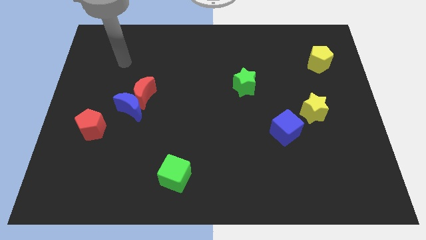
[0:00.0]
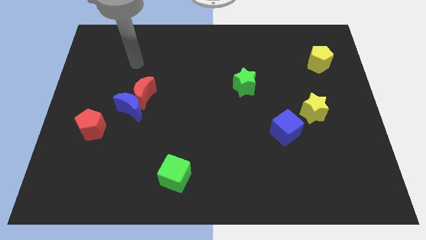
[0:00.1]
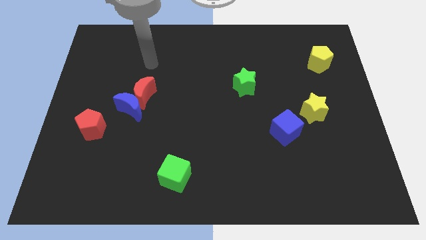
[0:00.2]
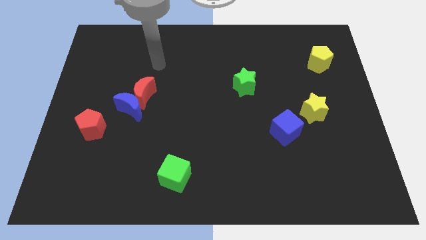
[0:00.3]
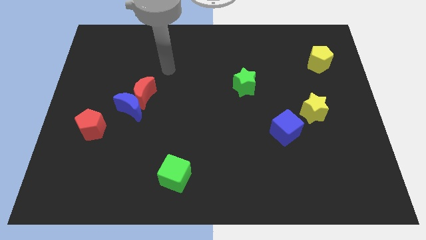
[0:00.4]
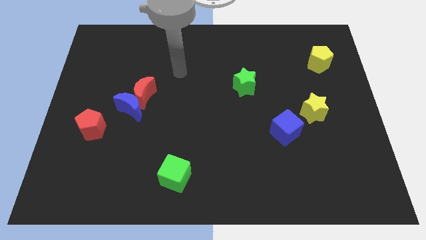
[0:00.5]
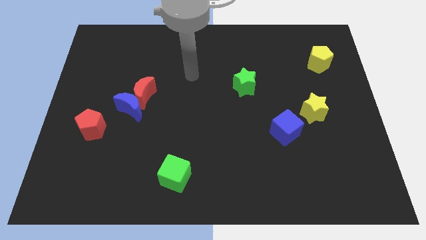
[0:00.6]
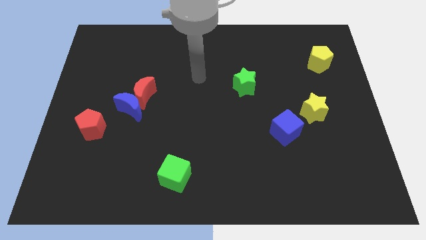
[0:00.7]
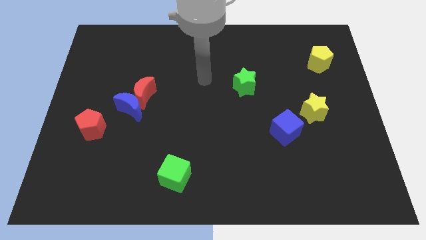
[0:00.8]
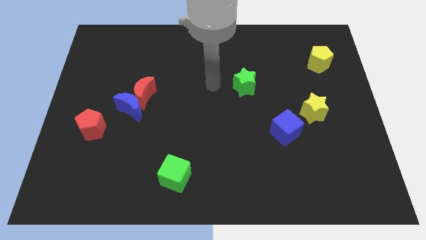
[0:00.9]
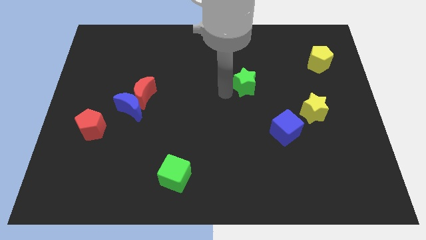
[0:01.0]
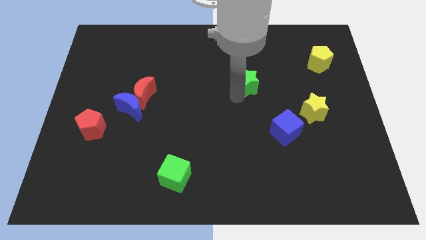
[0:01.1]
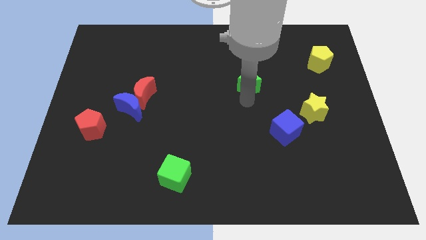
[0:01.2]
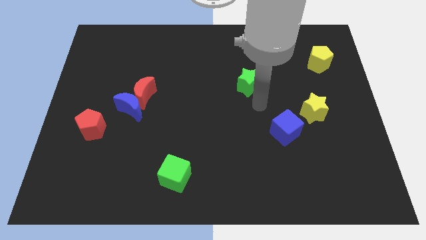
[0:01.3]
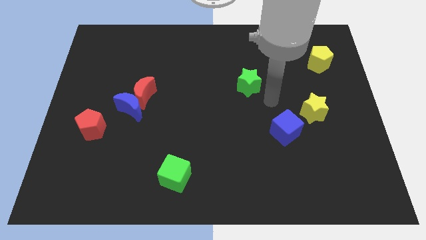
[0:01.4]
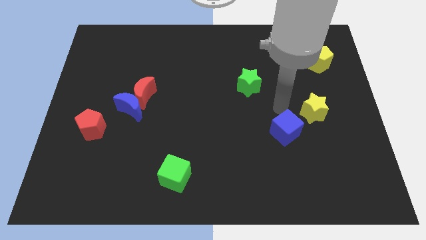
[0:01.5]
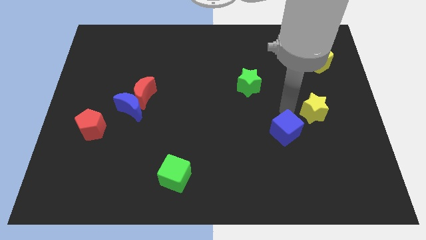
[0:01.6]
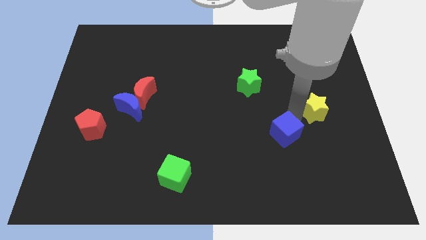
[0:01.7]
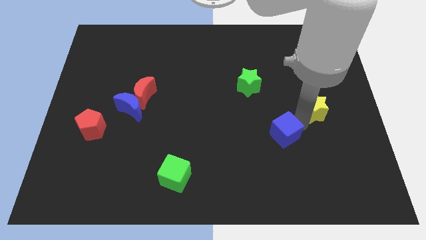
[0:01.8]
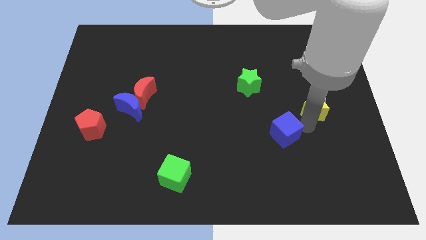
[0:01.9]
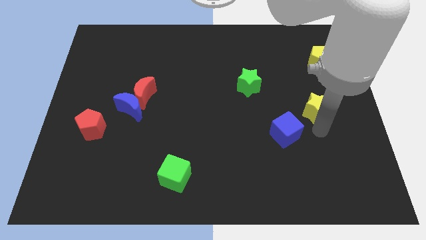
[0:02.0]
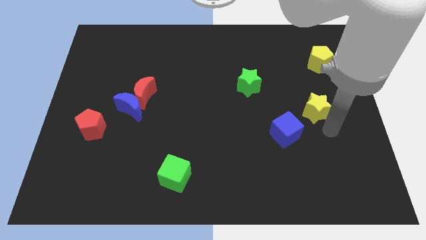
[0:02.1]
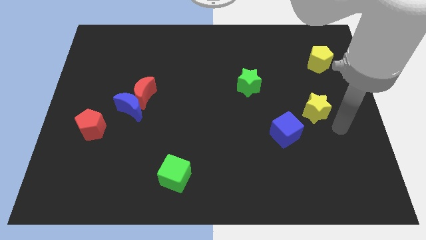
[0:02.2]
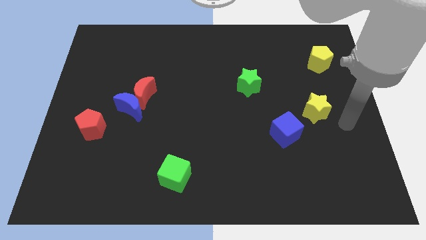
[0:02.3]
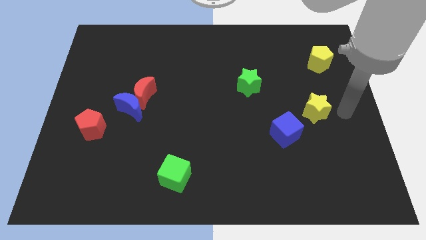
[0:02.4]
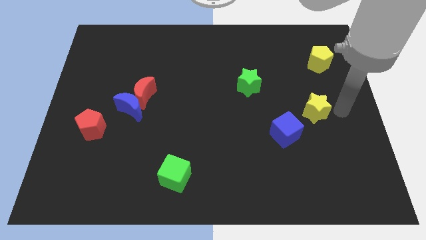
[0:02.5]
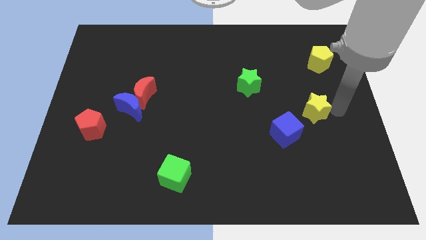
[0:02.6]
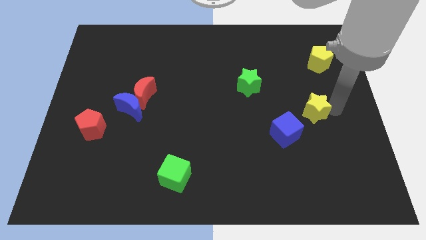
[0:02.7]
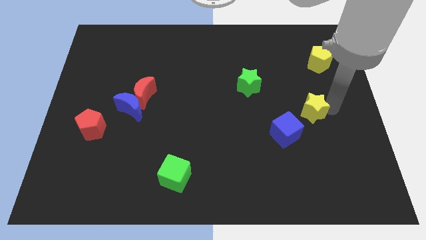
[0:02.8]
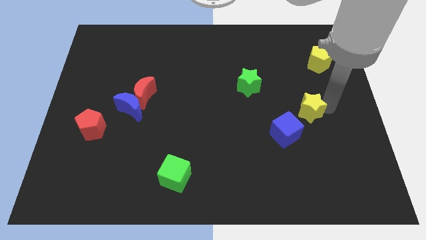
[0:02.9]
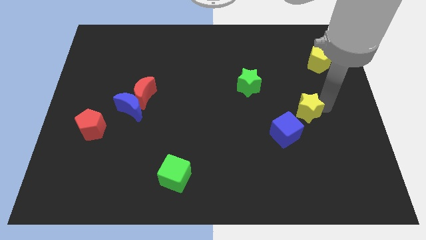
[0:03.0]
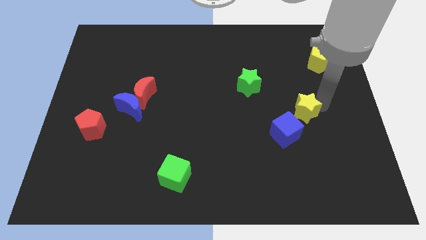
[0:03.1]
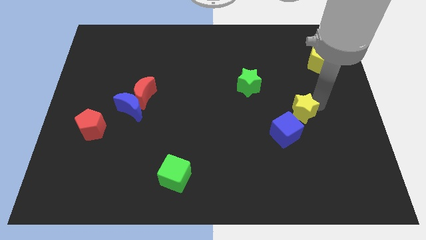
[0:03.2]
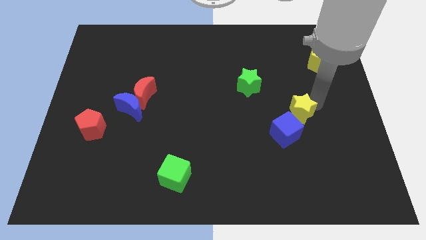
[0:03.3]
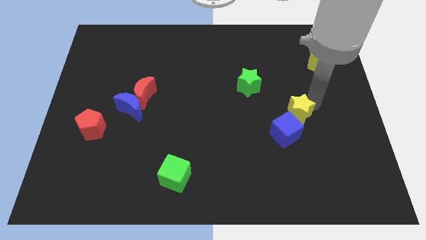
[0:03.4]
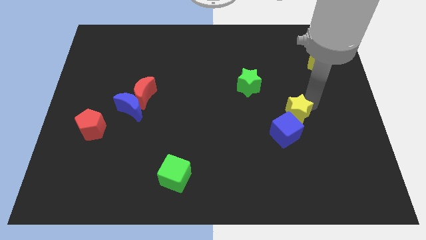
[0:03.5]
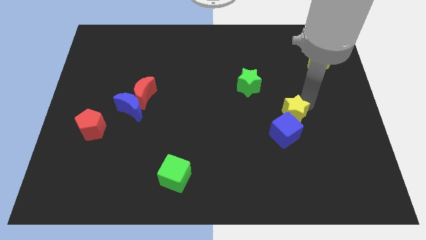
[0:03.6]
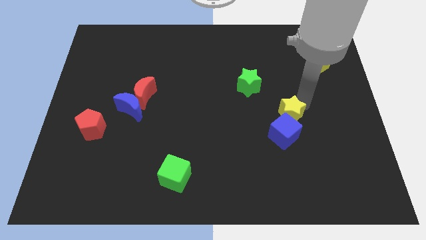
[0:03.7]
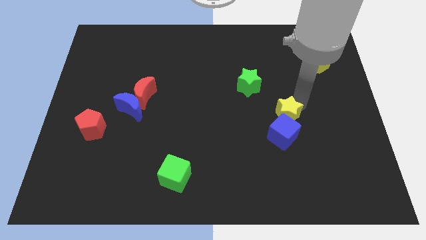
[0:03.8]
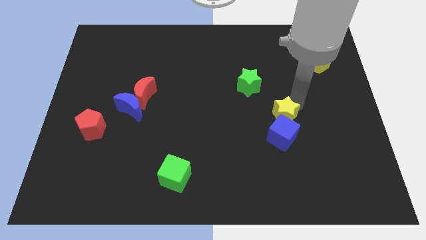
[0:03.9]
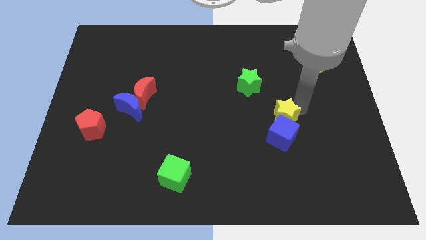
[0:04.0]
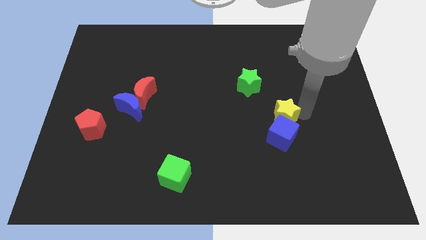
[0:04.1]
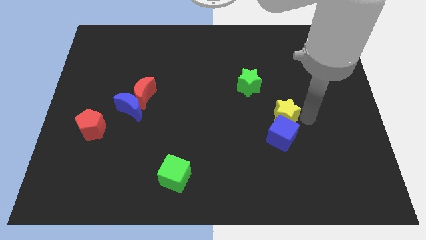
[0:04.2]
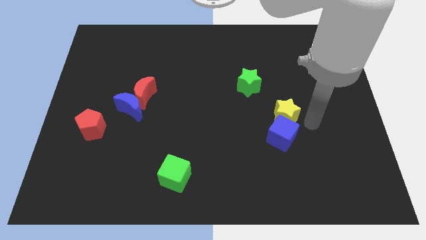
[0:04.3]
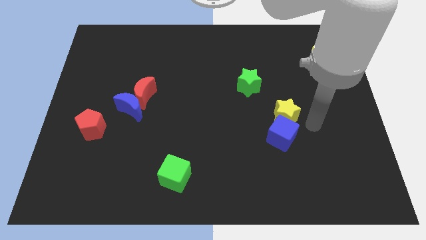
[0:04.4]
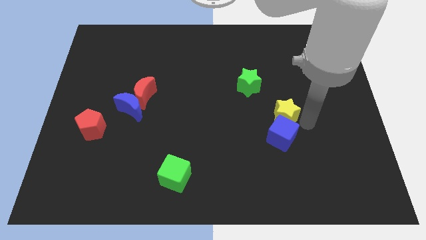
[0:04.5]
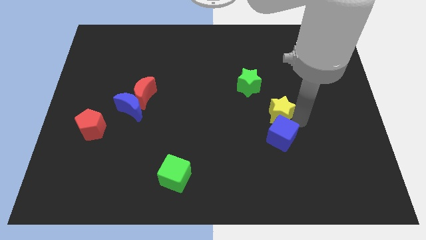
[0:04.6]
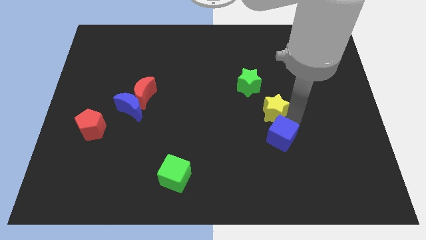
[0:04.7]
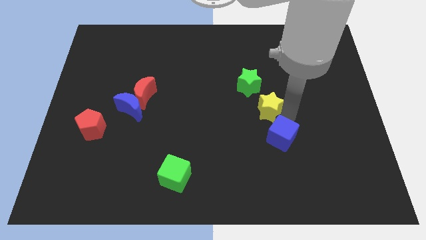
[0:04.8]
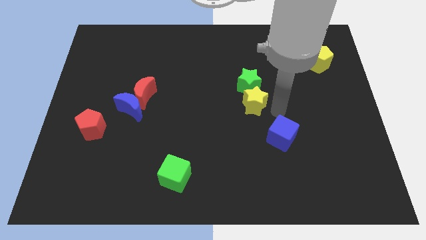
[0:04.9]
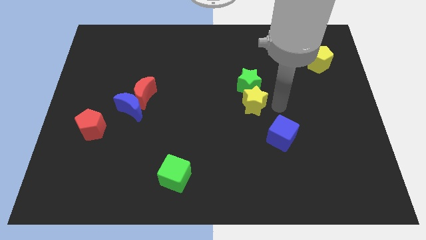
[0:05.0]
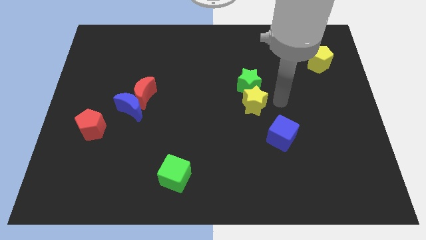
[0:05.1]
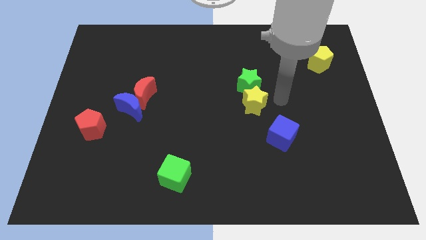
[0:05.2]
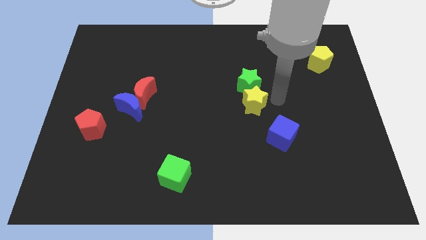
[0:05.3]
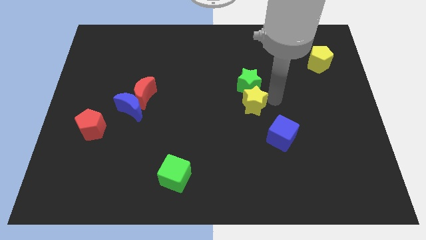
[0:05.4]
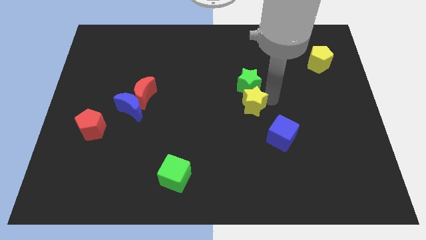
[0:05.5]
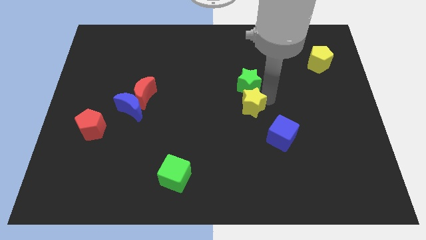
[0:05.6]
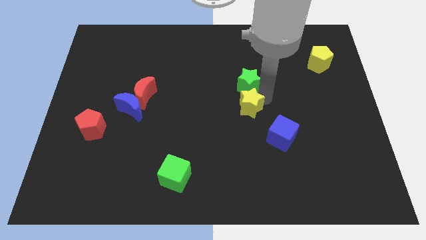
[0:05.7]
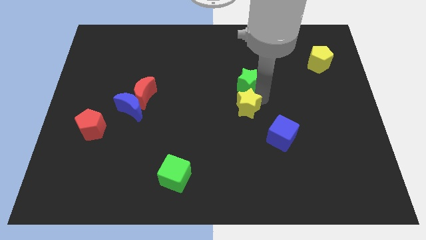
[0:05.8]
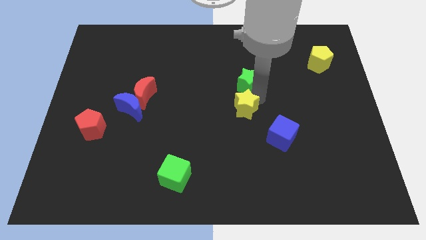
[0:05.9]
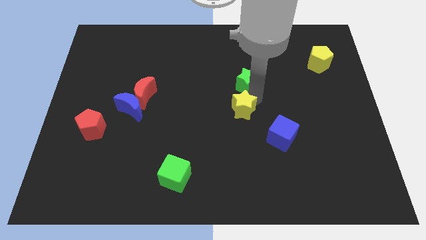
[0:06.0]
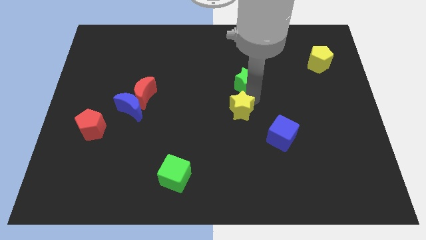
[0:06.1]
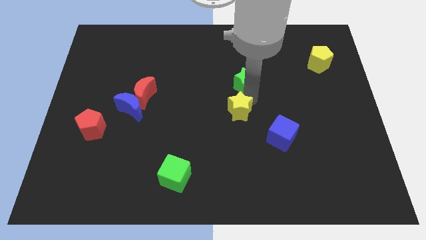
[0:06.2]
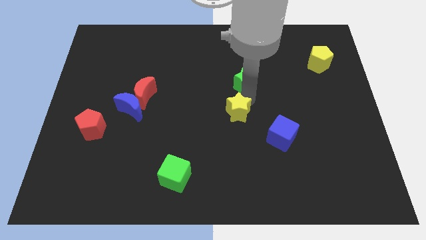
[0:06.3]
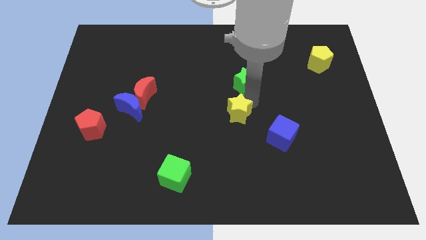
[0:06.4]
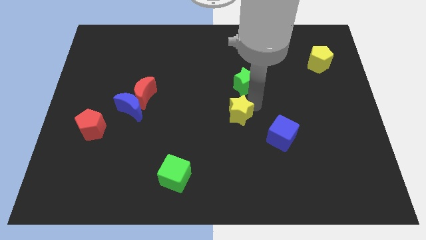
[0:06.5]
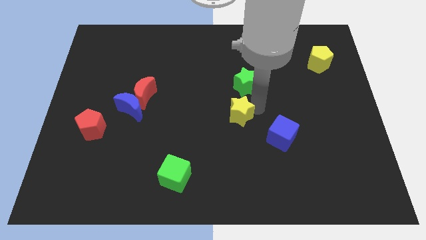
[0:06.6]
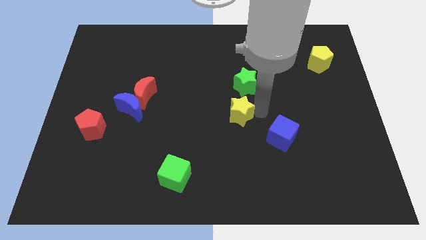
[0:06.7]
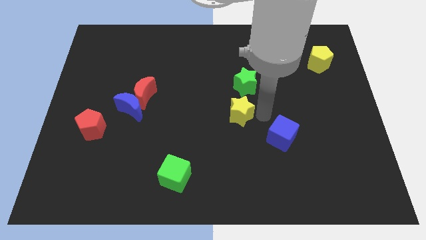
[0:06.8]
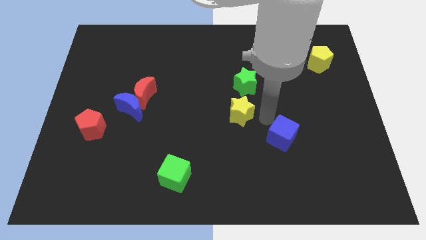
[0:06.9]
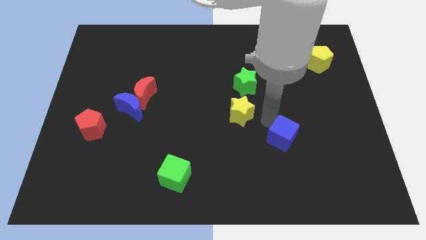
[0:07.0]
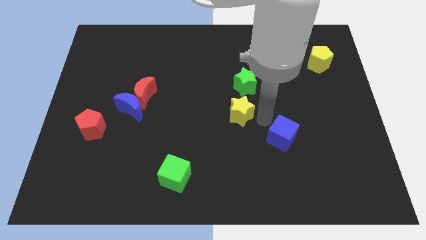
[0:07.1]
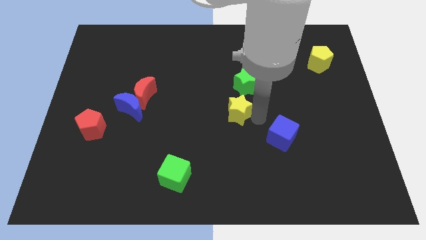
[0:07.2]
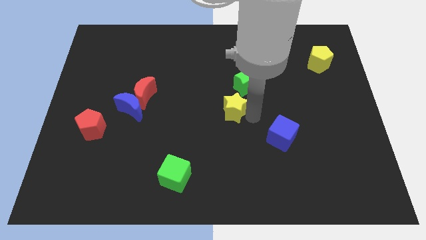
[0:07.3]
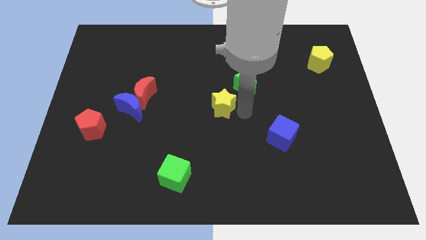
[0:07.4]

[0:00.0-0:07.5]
slide the yellow star left
